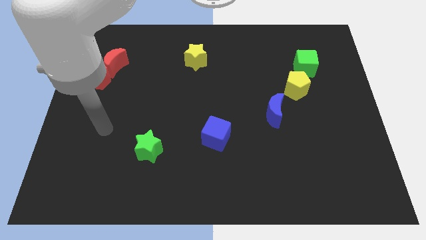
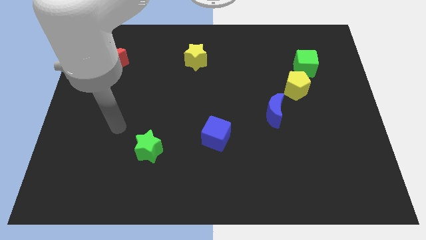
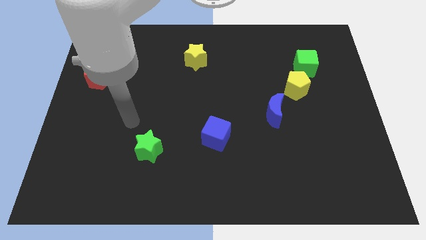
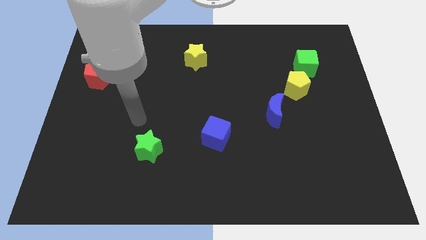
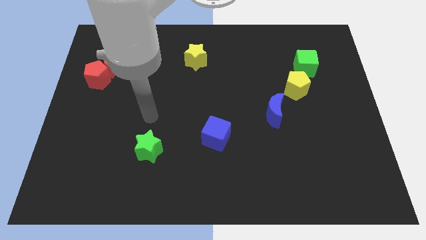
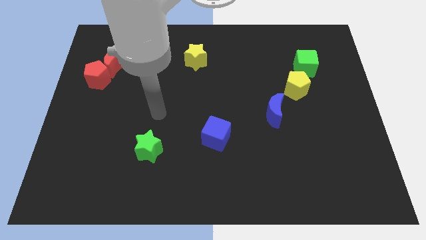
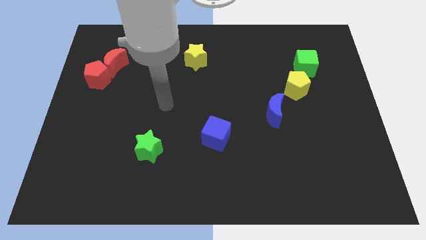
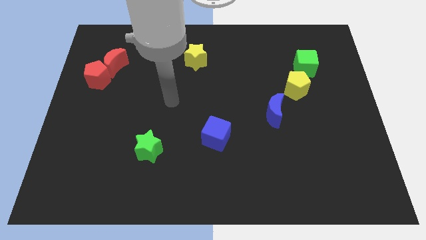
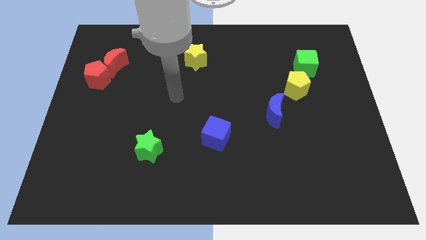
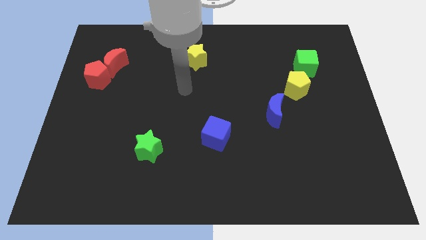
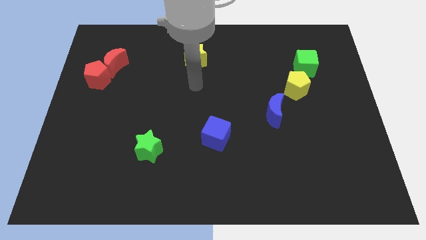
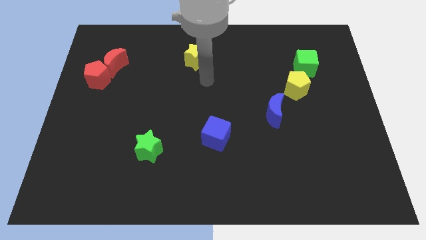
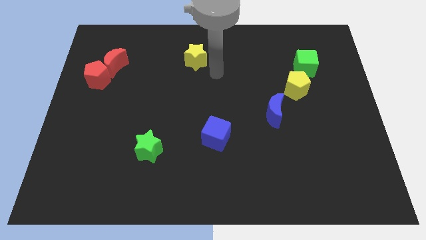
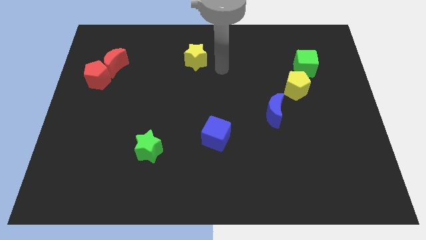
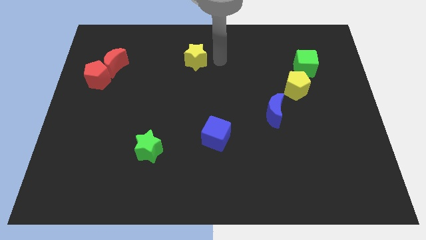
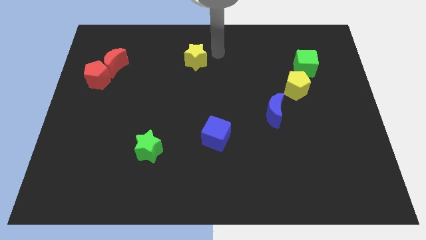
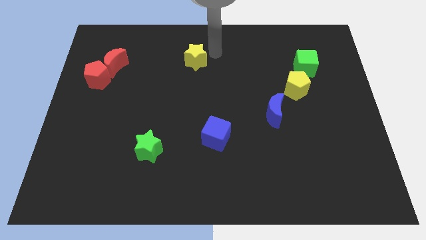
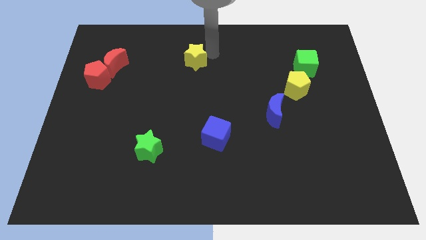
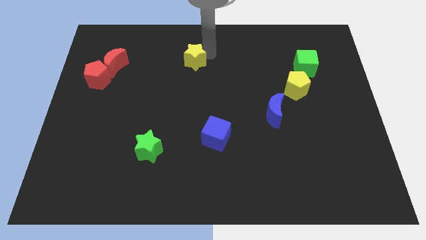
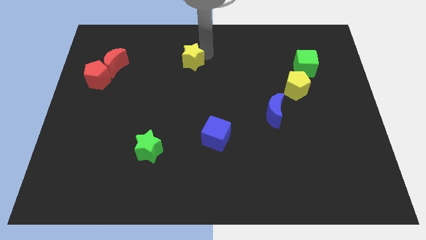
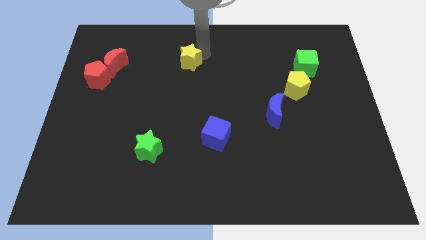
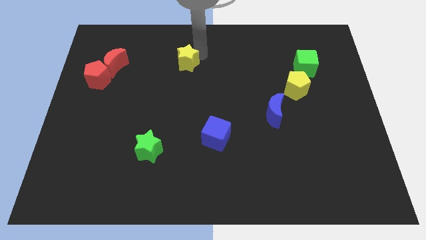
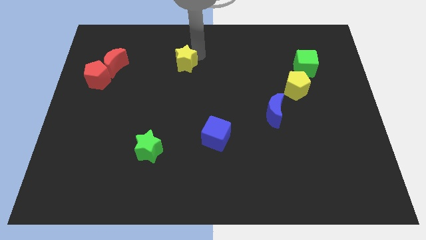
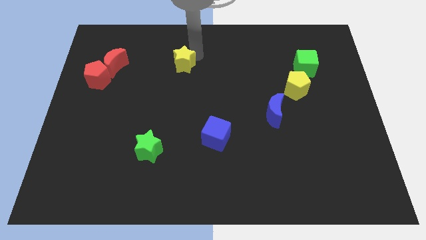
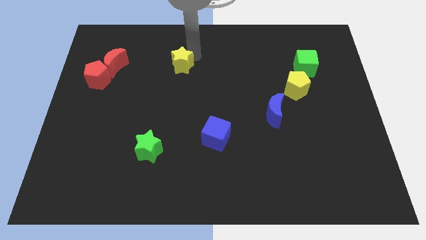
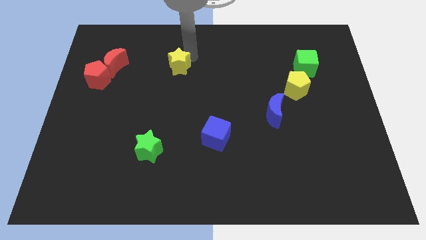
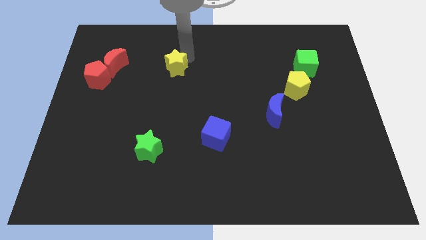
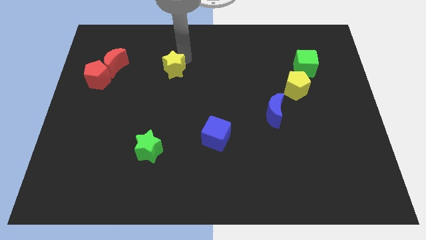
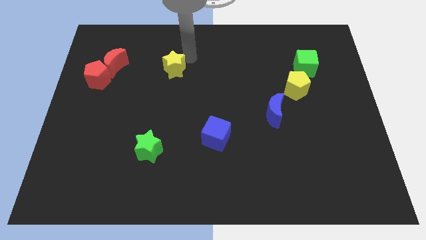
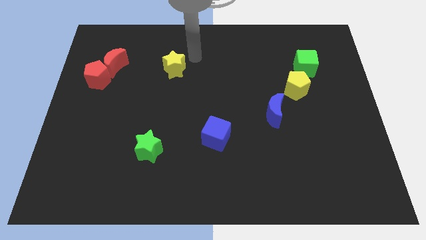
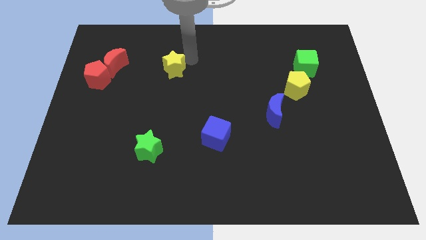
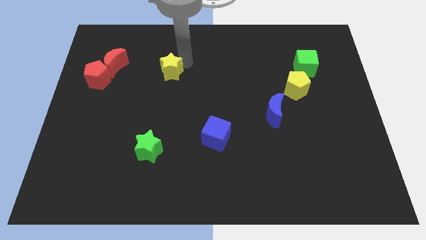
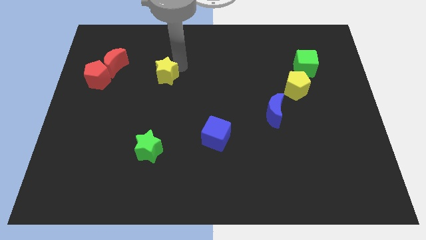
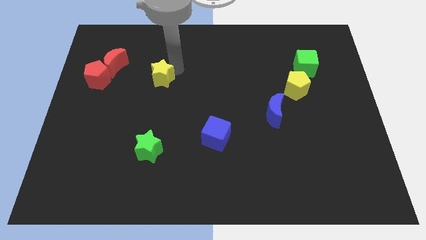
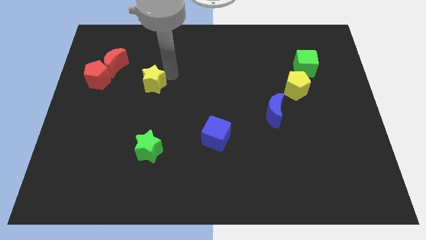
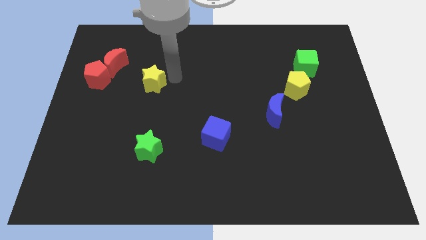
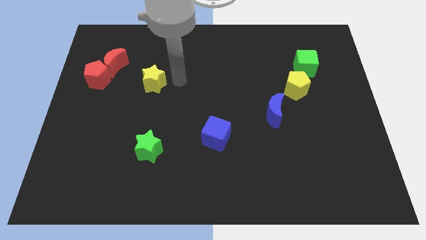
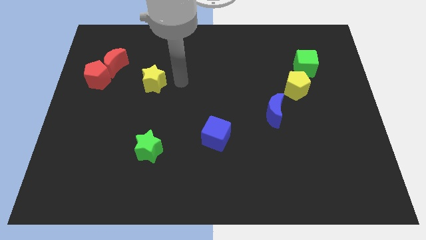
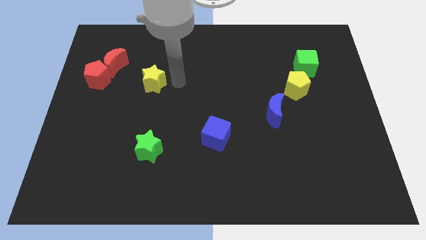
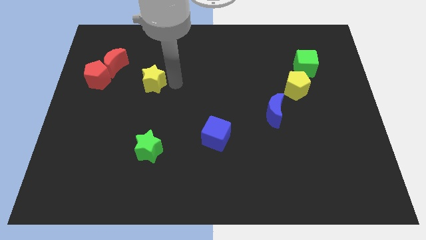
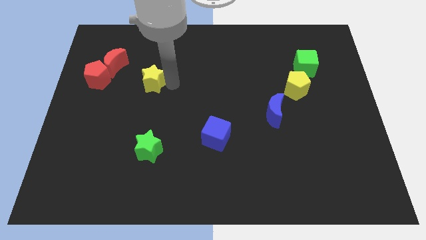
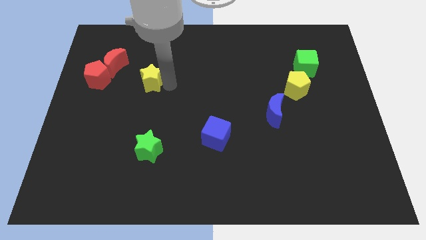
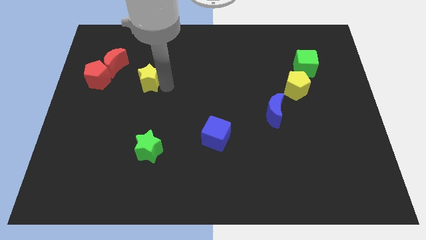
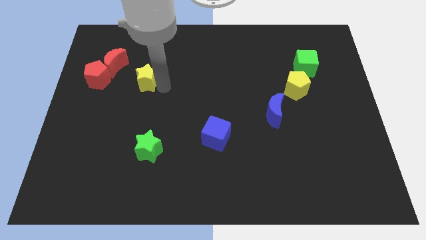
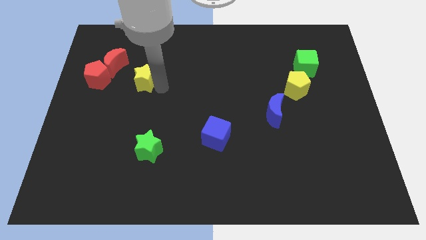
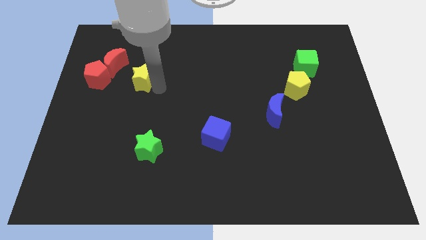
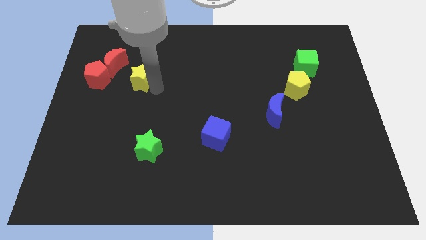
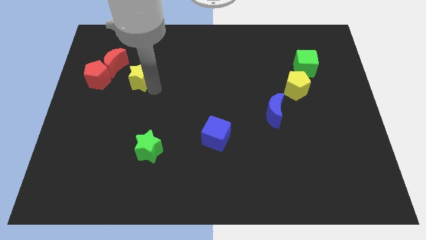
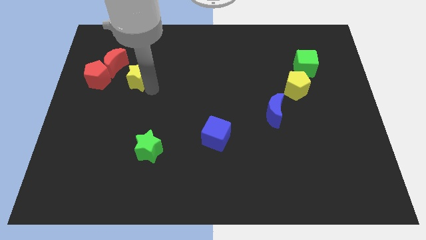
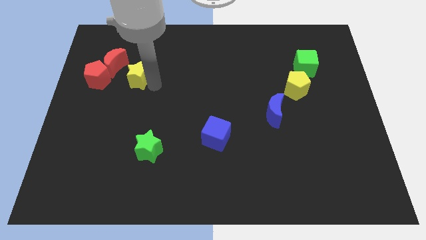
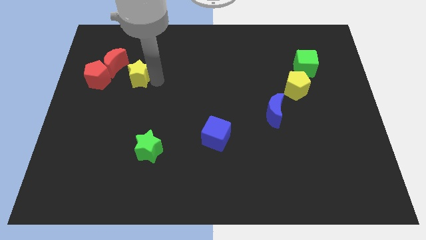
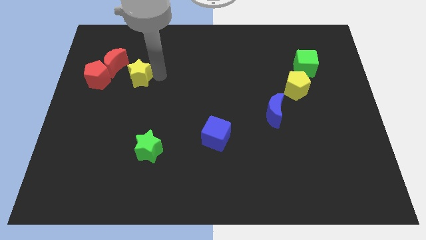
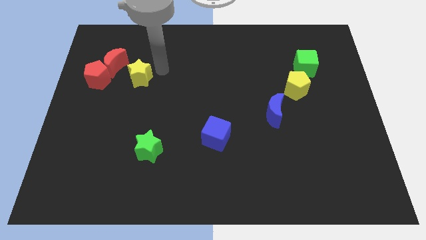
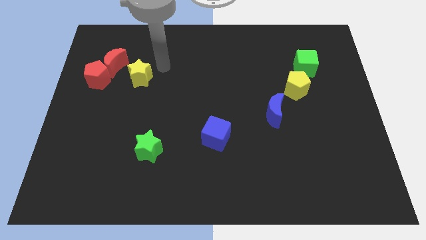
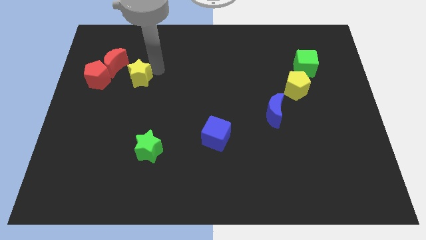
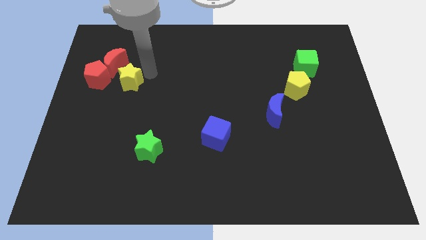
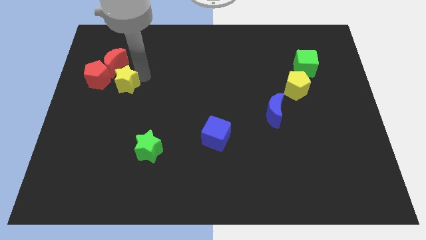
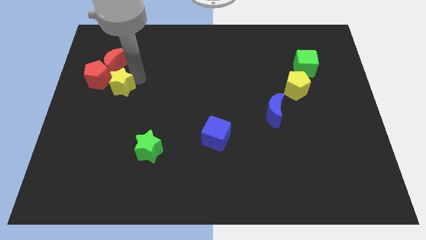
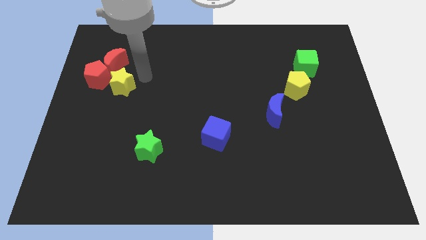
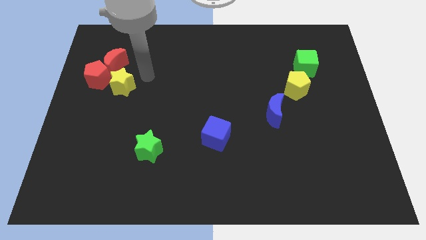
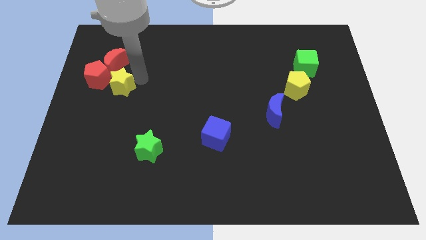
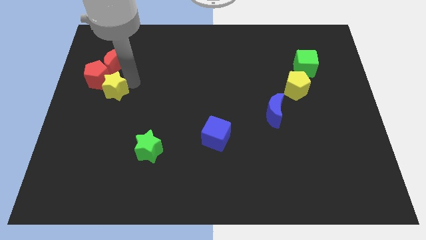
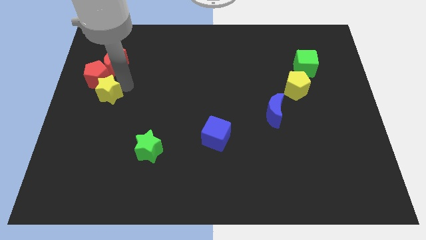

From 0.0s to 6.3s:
slide the yellow star to the center left
